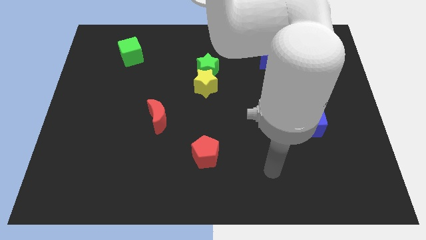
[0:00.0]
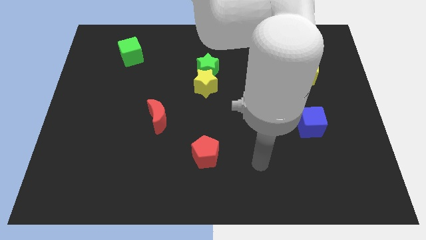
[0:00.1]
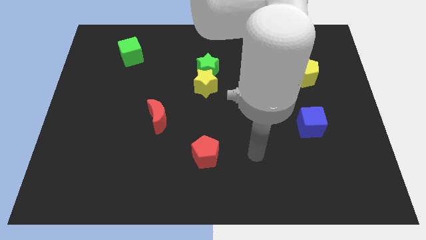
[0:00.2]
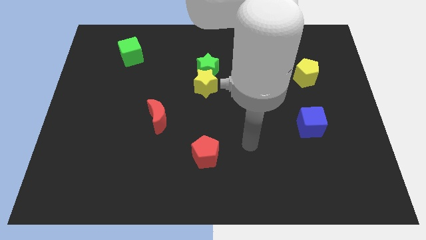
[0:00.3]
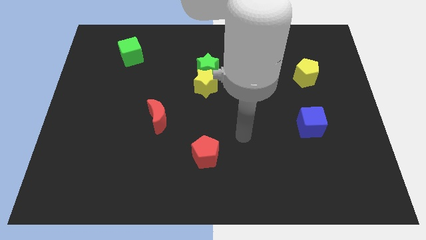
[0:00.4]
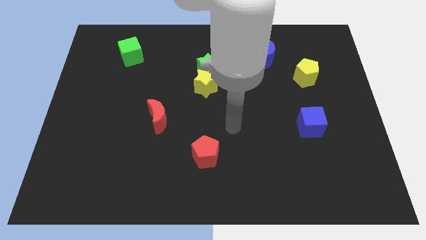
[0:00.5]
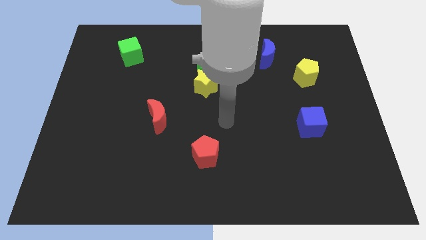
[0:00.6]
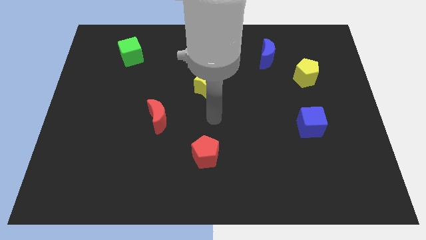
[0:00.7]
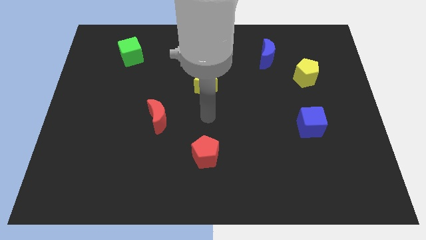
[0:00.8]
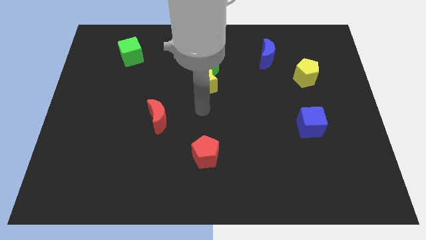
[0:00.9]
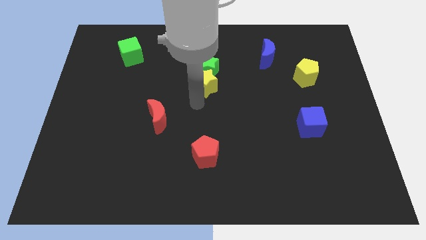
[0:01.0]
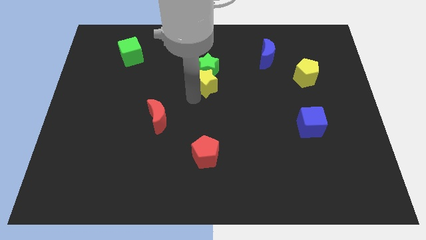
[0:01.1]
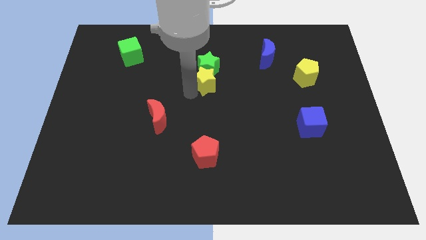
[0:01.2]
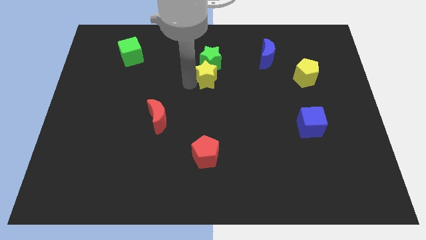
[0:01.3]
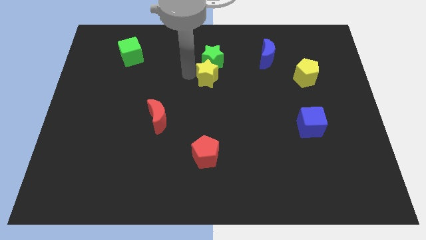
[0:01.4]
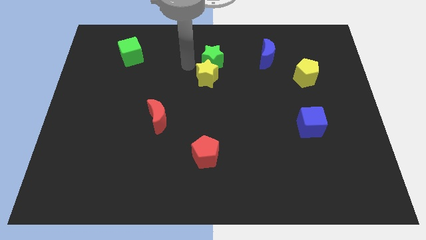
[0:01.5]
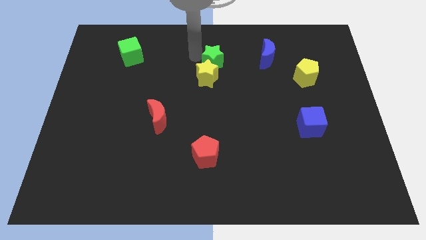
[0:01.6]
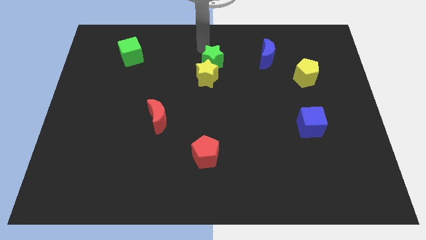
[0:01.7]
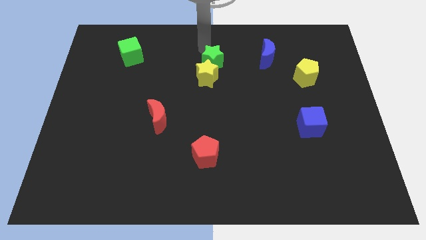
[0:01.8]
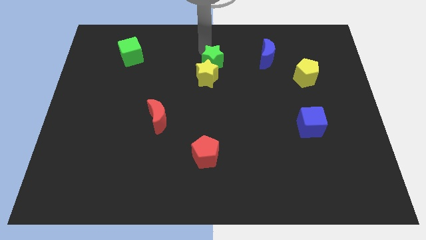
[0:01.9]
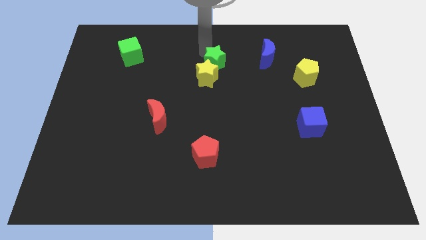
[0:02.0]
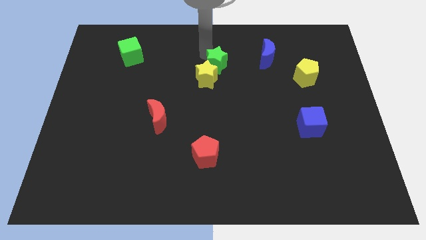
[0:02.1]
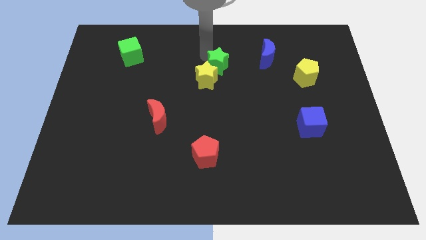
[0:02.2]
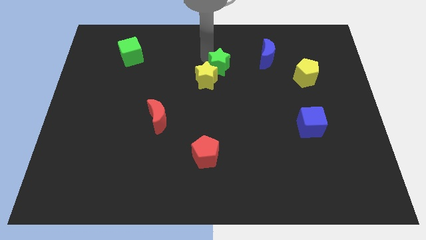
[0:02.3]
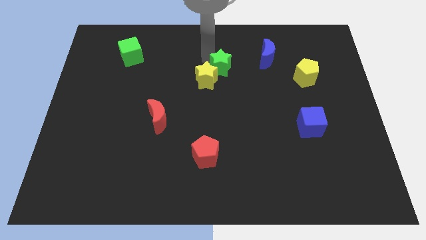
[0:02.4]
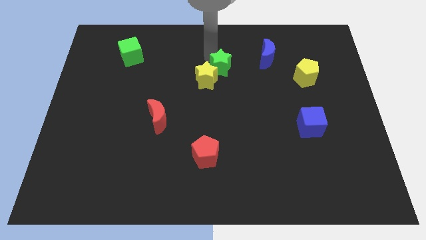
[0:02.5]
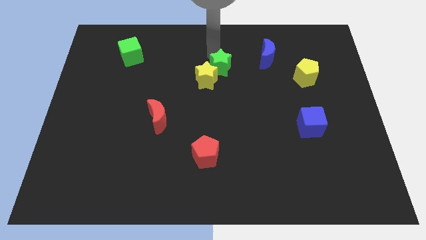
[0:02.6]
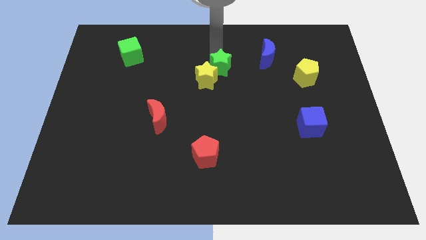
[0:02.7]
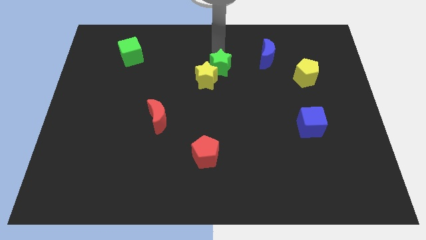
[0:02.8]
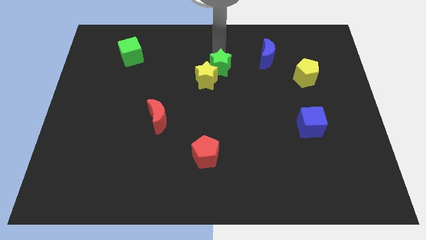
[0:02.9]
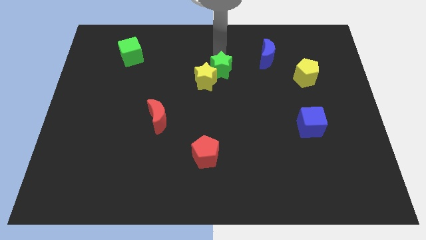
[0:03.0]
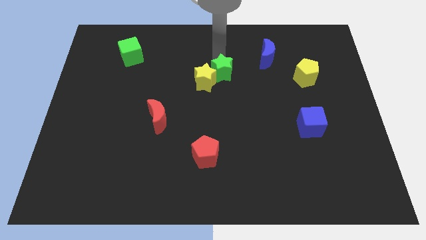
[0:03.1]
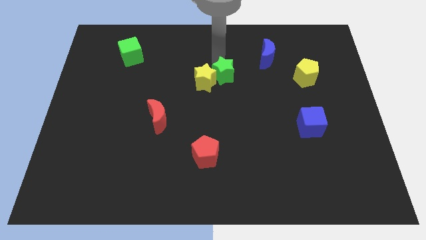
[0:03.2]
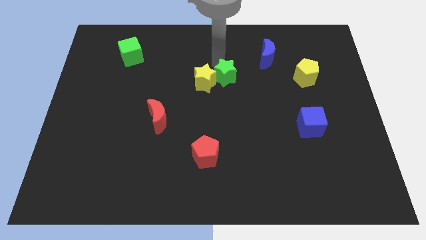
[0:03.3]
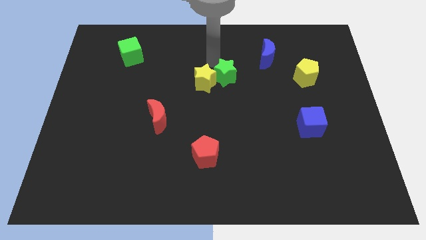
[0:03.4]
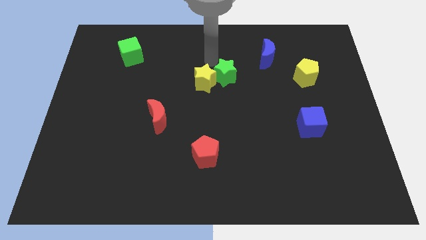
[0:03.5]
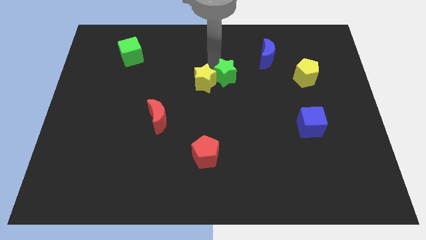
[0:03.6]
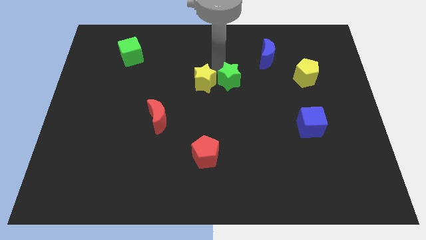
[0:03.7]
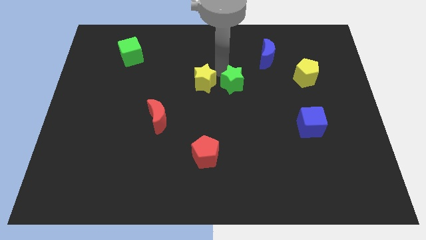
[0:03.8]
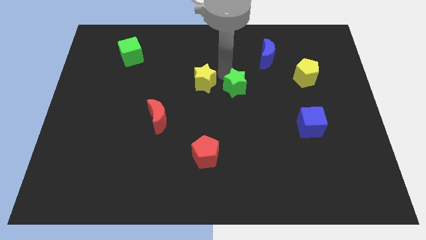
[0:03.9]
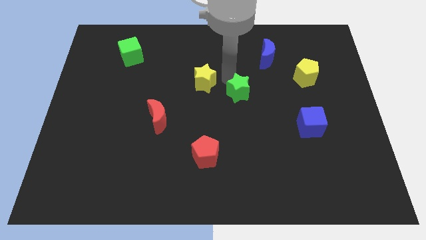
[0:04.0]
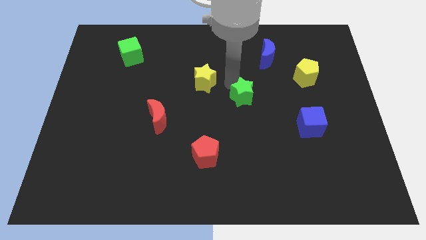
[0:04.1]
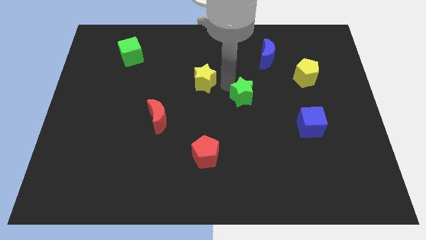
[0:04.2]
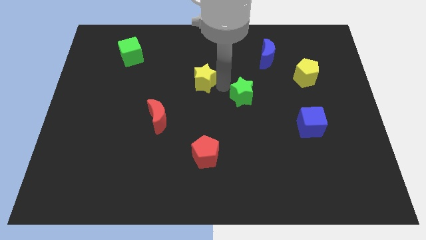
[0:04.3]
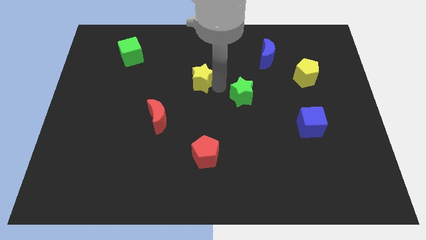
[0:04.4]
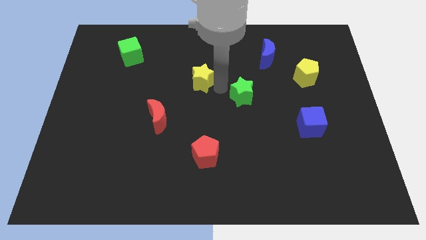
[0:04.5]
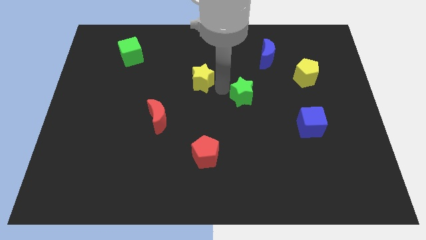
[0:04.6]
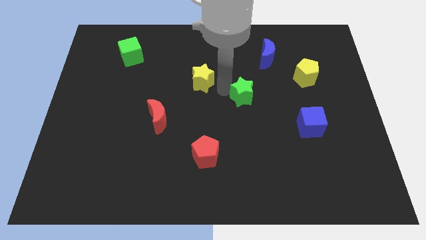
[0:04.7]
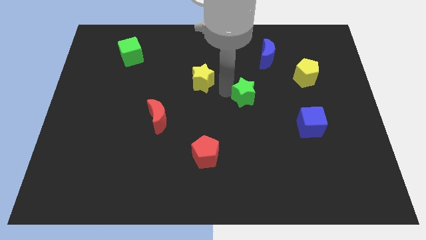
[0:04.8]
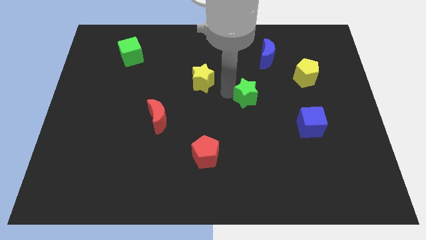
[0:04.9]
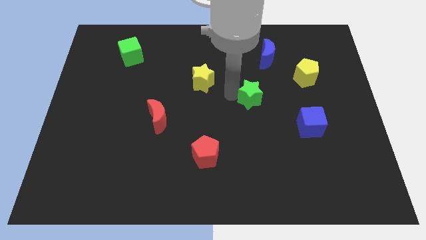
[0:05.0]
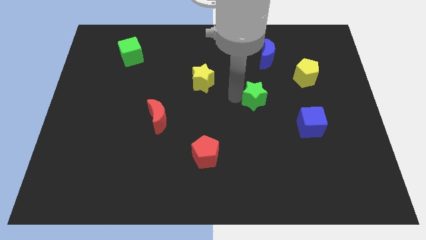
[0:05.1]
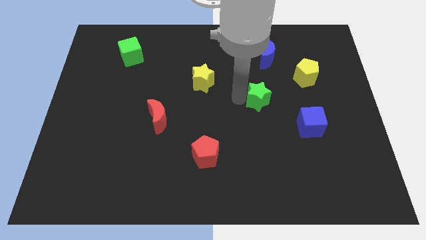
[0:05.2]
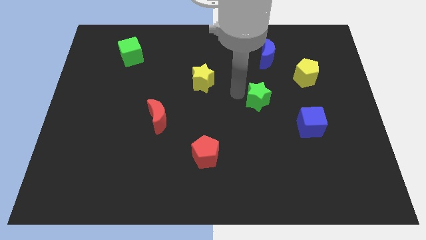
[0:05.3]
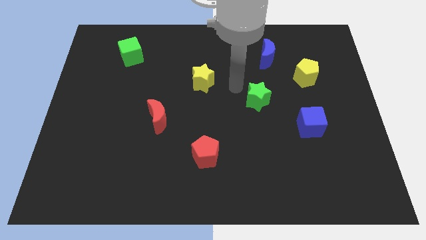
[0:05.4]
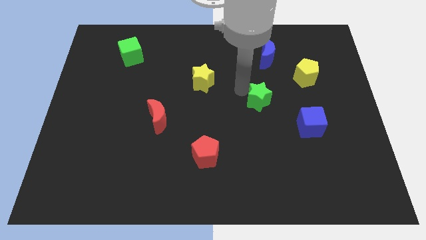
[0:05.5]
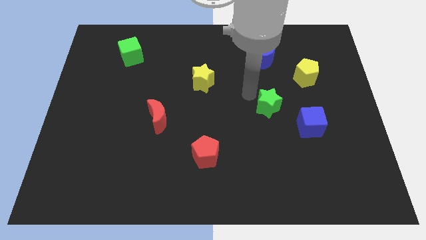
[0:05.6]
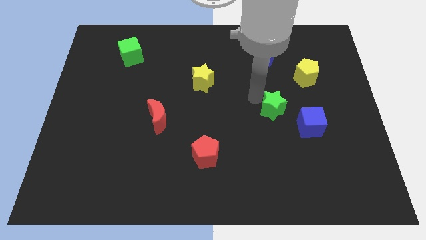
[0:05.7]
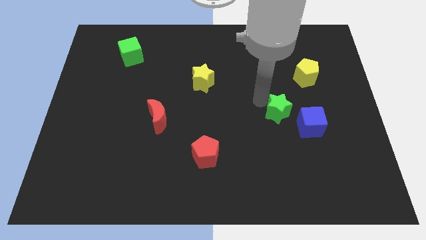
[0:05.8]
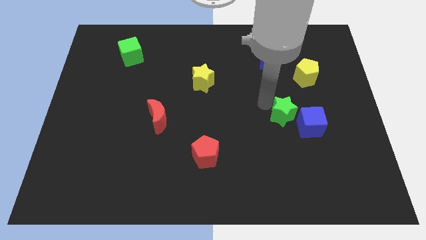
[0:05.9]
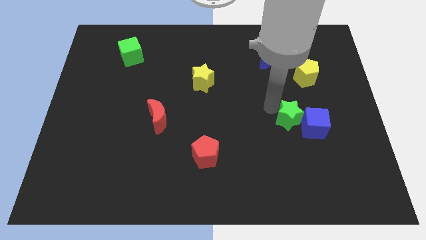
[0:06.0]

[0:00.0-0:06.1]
slide the green star to the blue cube

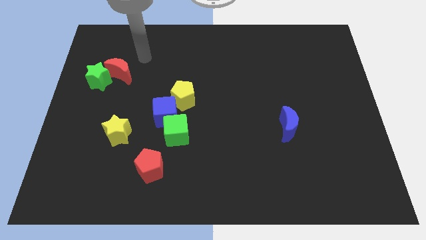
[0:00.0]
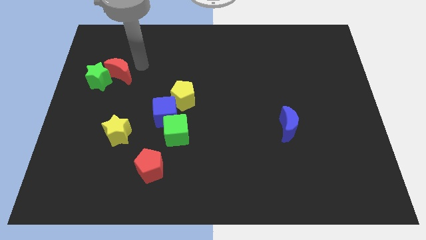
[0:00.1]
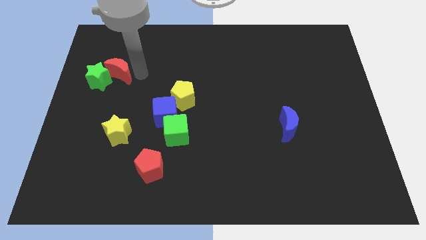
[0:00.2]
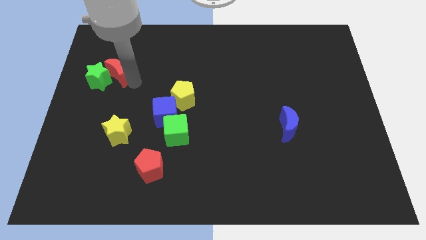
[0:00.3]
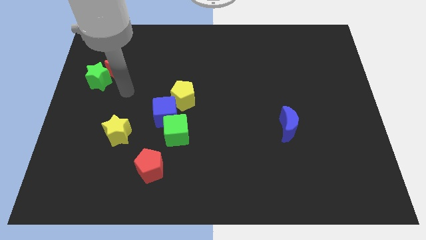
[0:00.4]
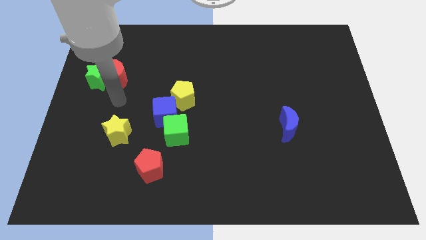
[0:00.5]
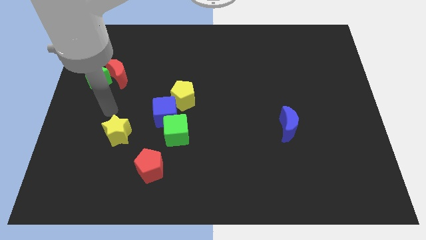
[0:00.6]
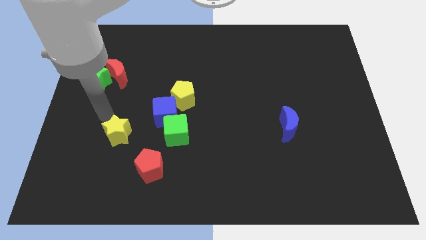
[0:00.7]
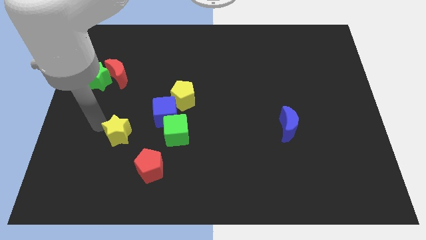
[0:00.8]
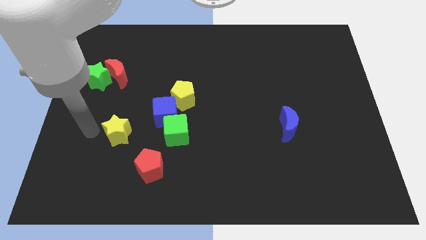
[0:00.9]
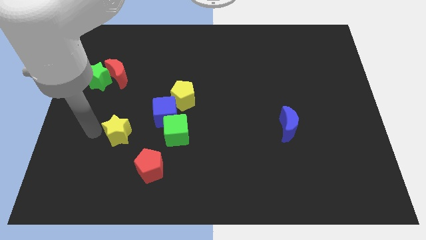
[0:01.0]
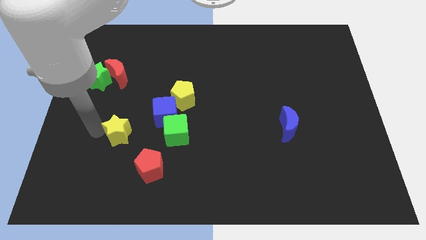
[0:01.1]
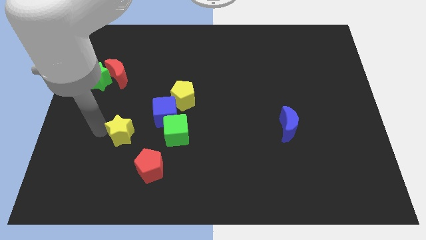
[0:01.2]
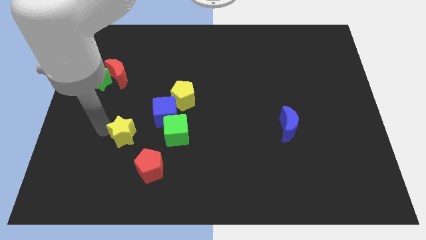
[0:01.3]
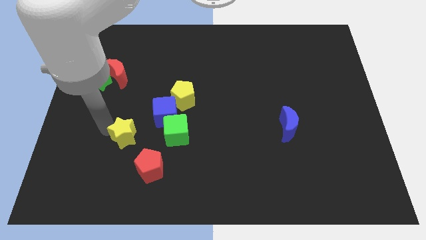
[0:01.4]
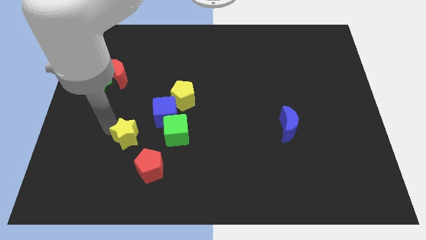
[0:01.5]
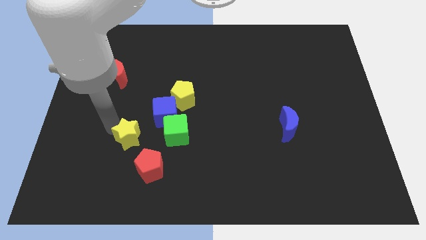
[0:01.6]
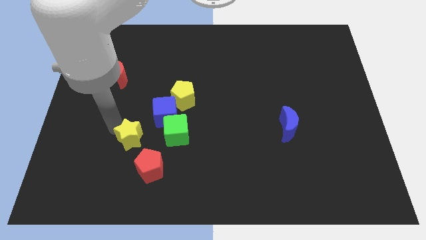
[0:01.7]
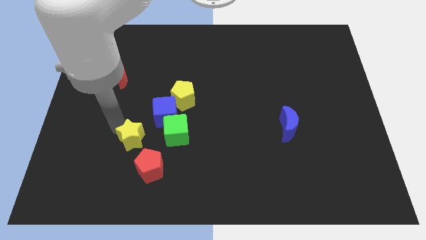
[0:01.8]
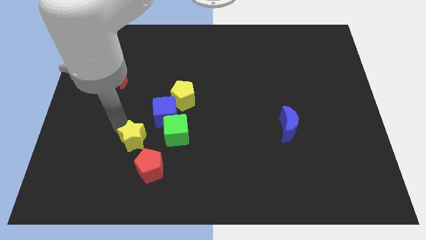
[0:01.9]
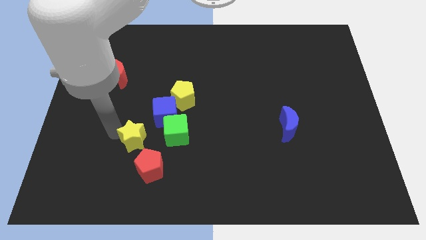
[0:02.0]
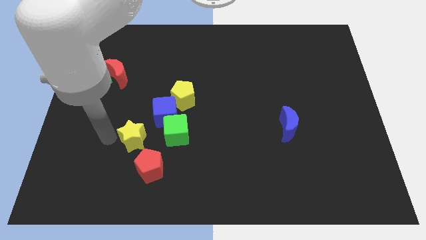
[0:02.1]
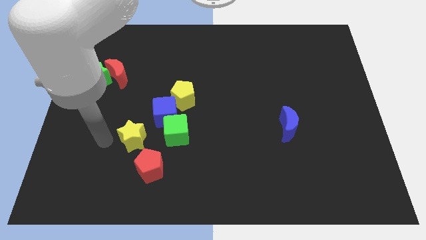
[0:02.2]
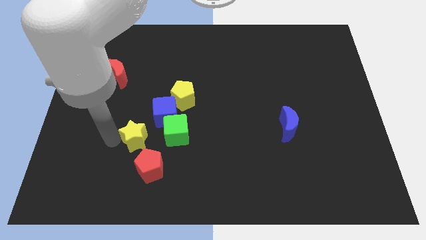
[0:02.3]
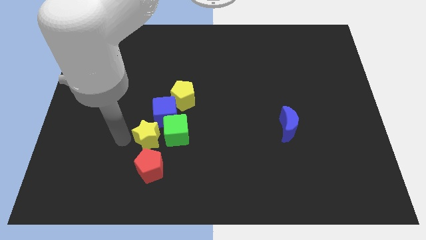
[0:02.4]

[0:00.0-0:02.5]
move the yellow star close to the green cube
